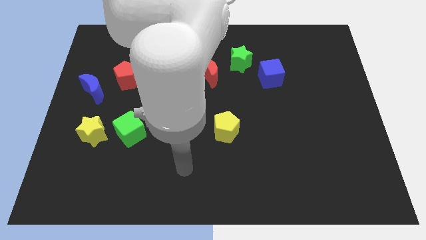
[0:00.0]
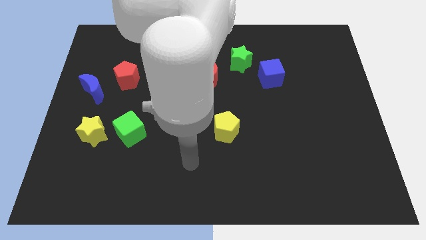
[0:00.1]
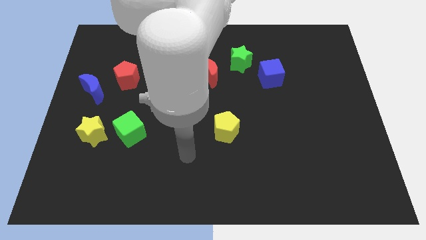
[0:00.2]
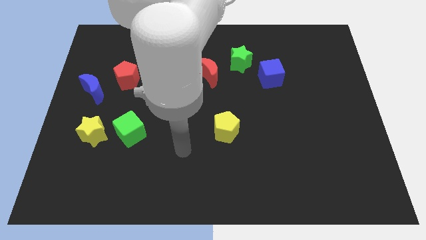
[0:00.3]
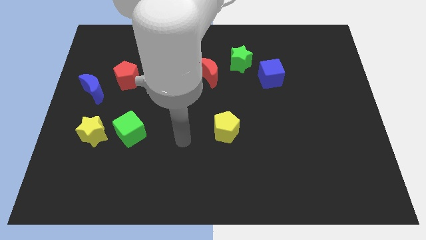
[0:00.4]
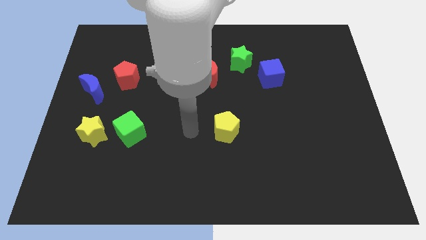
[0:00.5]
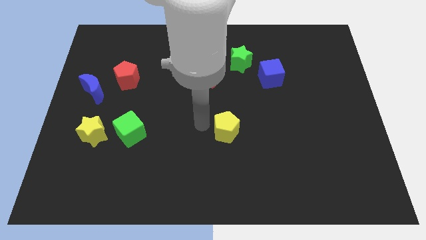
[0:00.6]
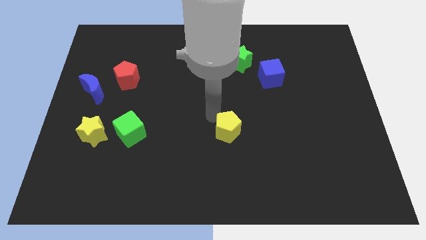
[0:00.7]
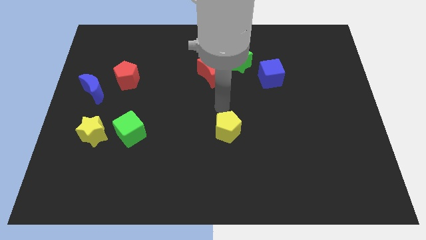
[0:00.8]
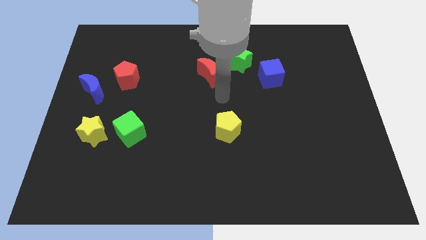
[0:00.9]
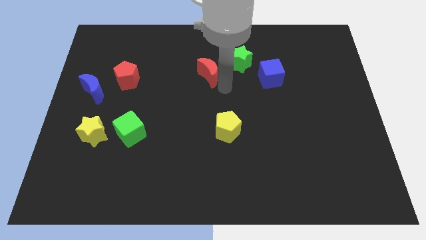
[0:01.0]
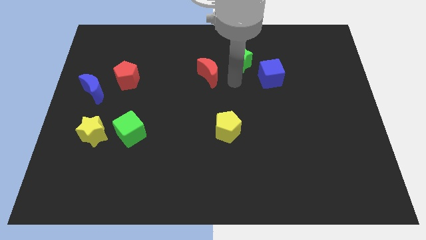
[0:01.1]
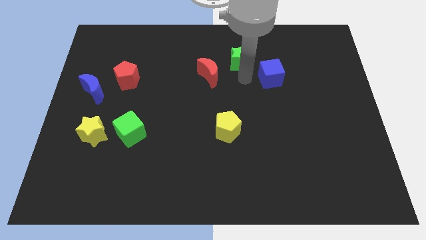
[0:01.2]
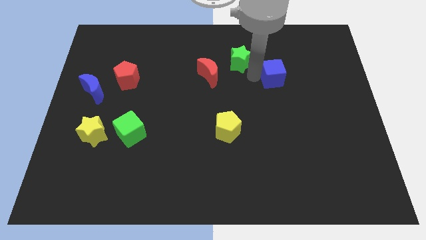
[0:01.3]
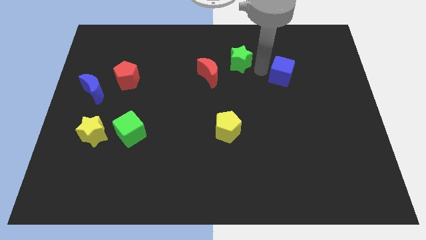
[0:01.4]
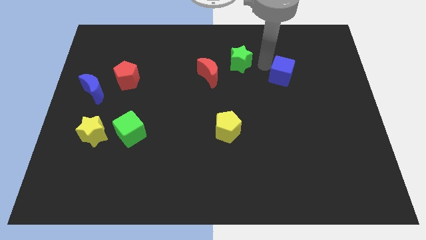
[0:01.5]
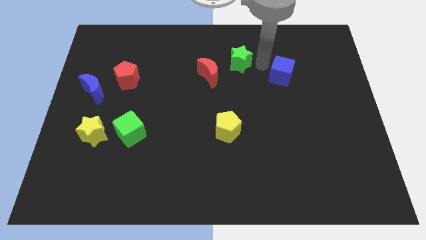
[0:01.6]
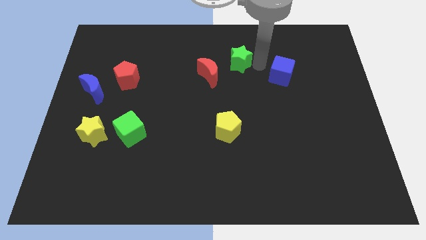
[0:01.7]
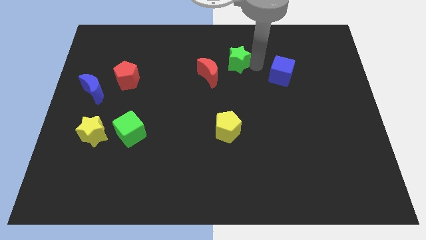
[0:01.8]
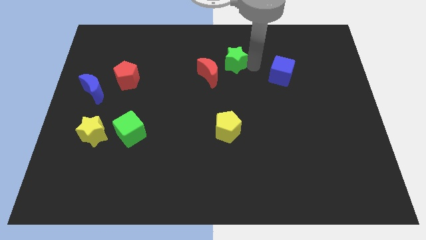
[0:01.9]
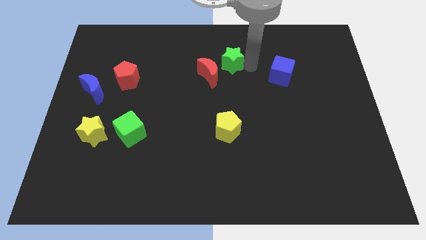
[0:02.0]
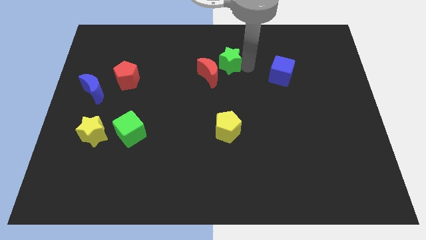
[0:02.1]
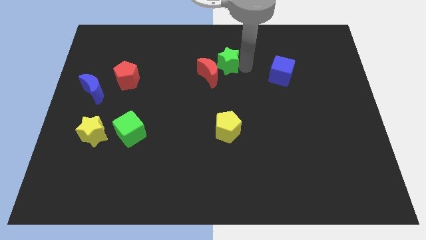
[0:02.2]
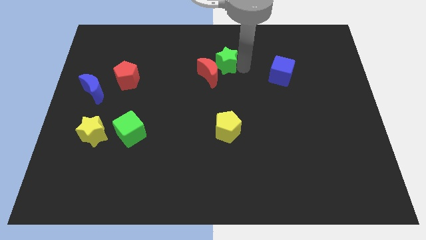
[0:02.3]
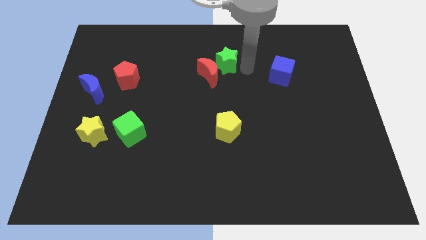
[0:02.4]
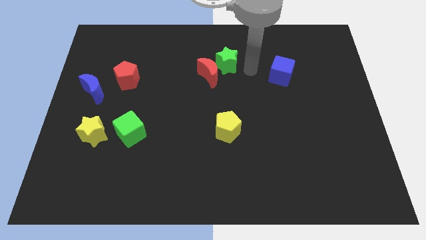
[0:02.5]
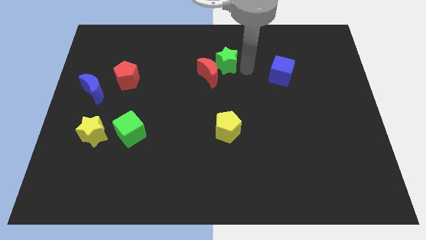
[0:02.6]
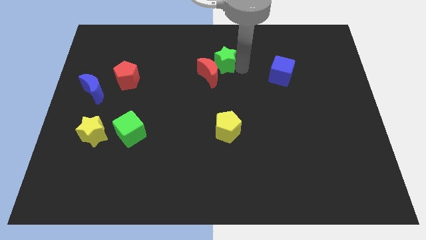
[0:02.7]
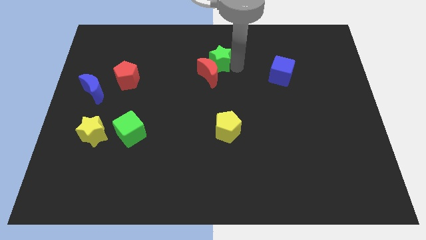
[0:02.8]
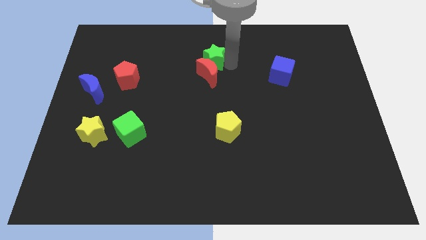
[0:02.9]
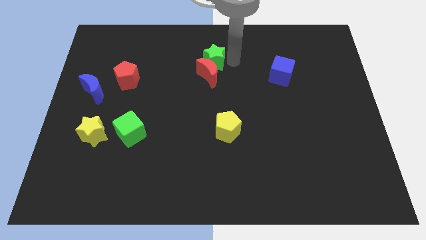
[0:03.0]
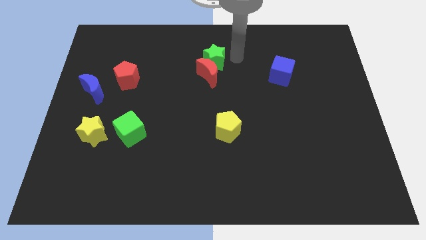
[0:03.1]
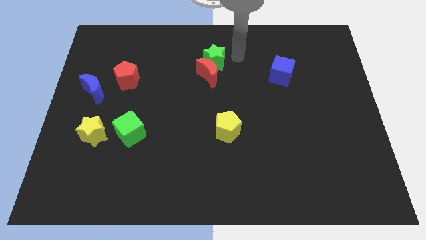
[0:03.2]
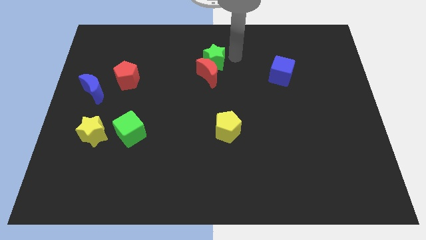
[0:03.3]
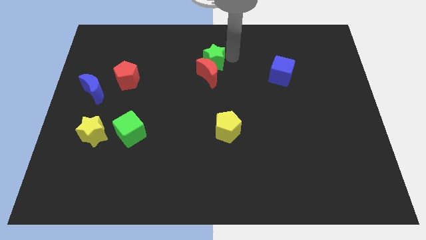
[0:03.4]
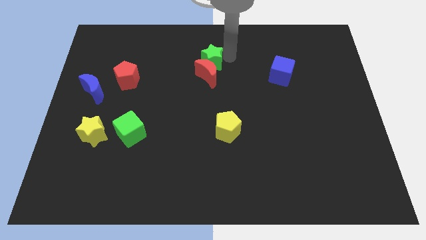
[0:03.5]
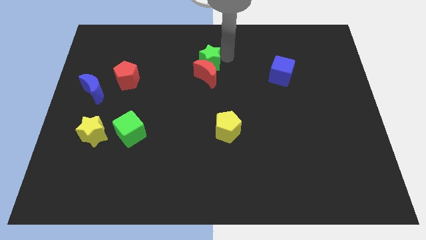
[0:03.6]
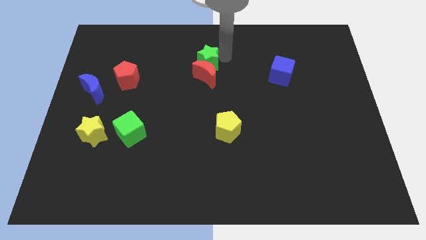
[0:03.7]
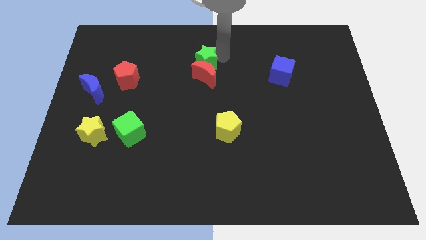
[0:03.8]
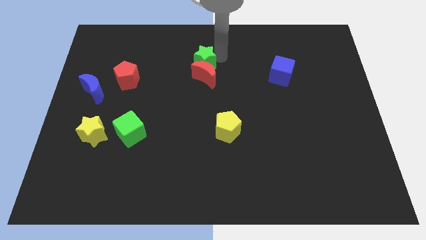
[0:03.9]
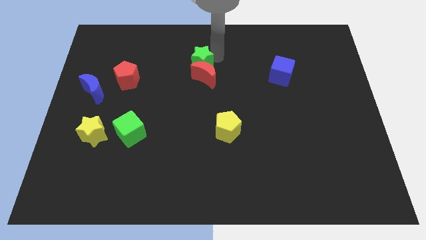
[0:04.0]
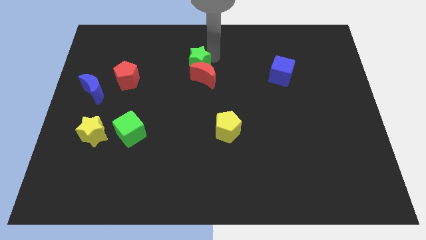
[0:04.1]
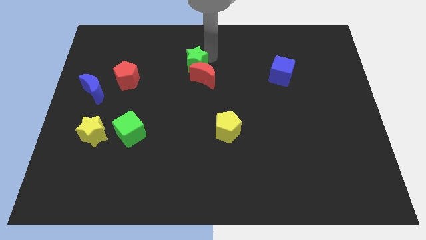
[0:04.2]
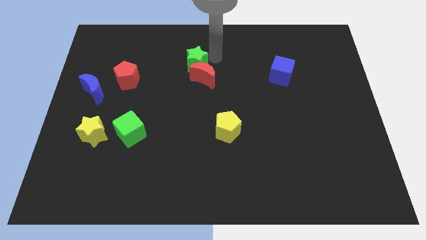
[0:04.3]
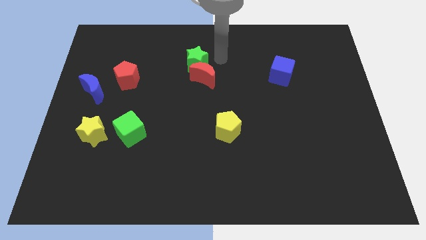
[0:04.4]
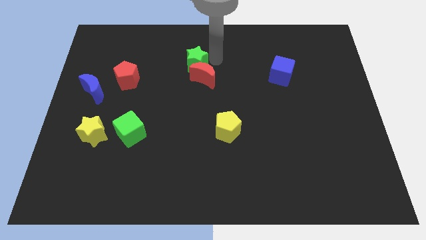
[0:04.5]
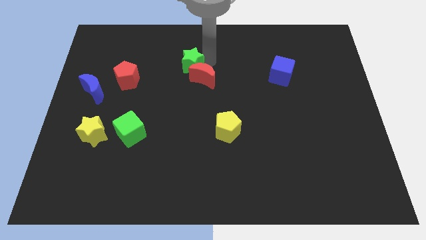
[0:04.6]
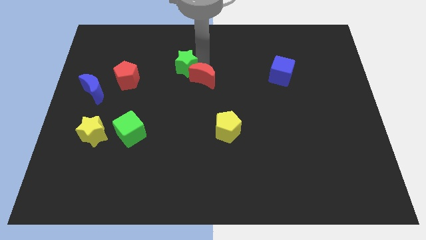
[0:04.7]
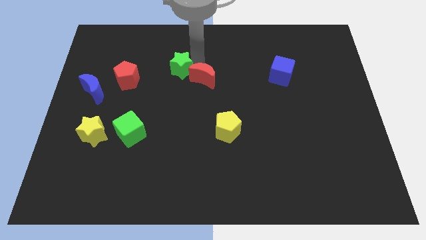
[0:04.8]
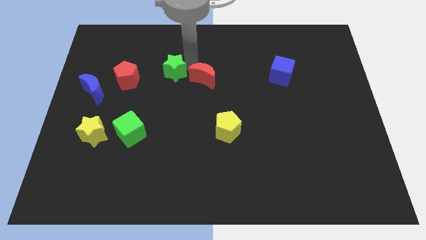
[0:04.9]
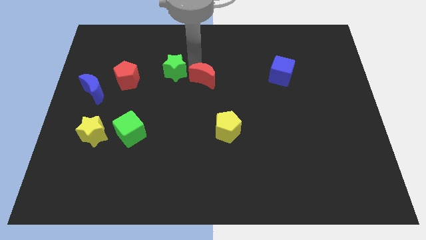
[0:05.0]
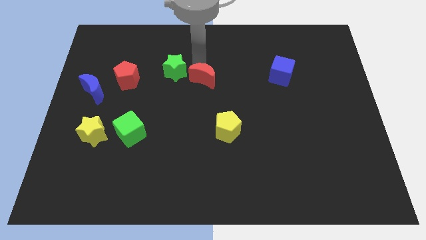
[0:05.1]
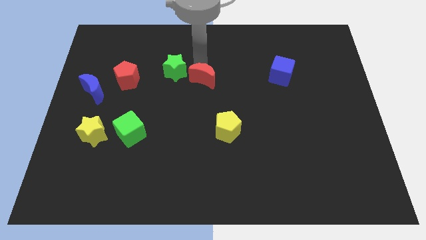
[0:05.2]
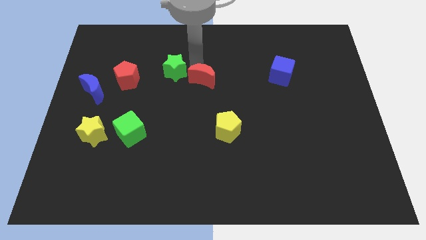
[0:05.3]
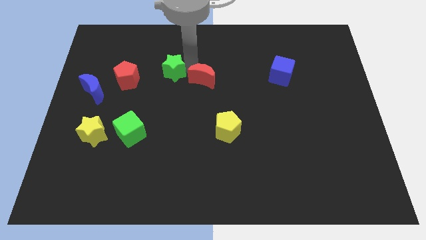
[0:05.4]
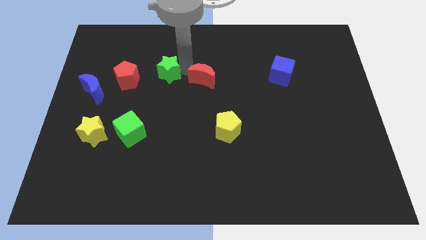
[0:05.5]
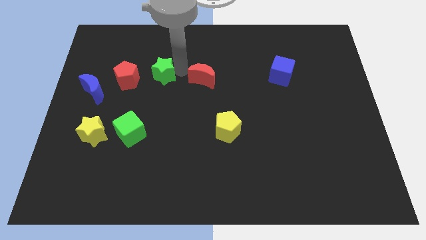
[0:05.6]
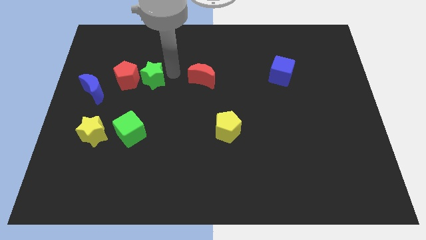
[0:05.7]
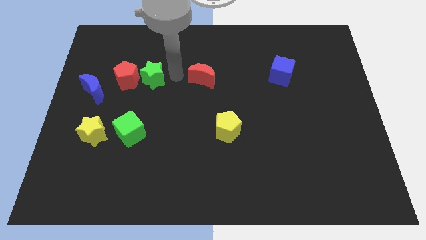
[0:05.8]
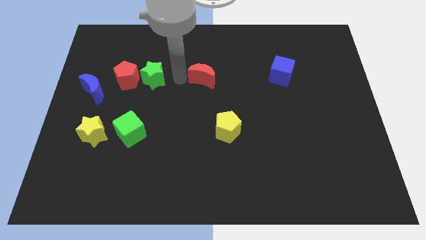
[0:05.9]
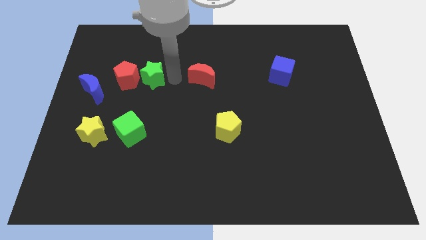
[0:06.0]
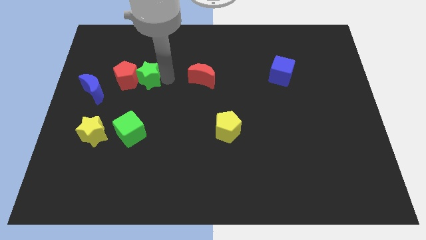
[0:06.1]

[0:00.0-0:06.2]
move the green star close to the red pentagon

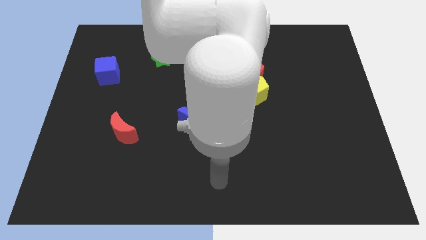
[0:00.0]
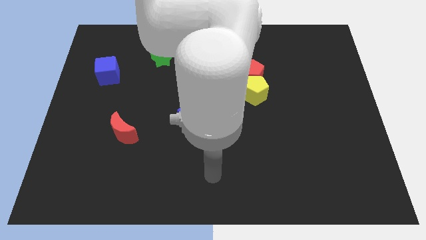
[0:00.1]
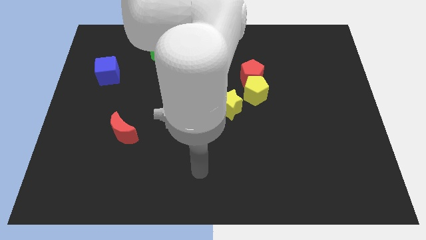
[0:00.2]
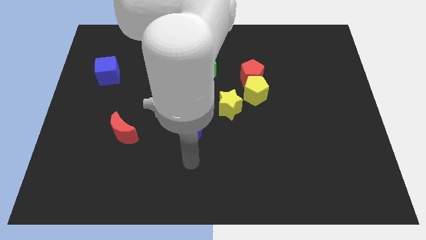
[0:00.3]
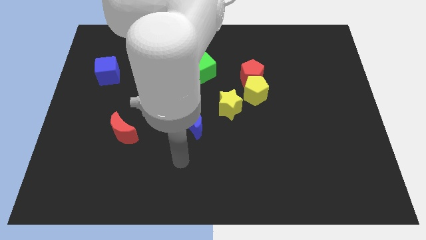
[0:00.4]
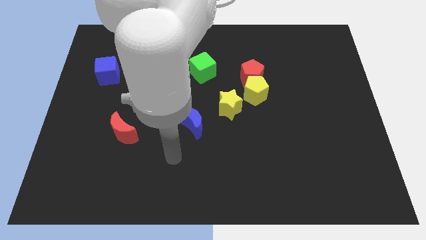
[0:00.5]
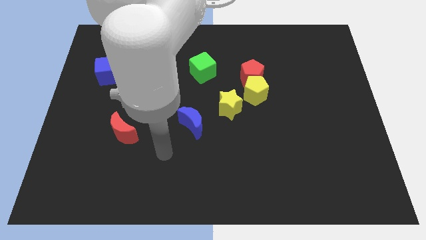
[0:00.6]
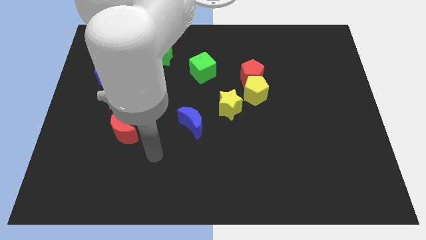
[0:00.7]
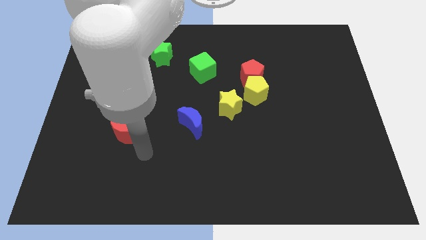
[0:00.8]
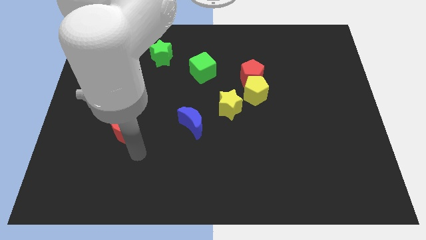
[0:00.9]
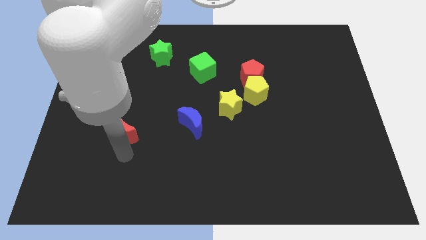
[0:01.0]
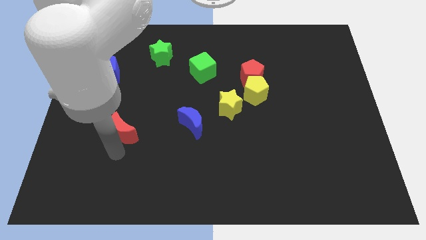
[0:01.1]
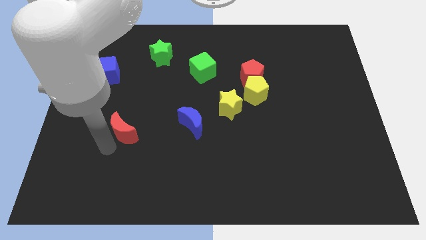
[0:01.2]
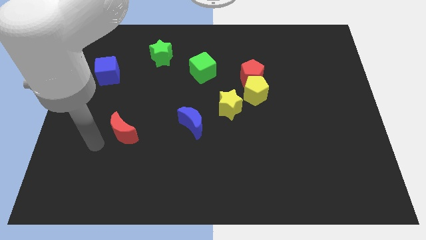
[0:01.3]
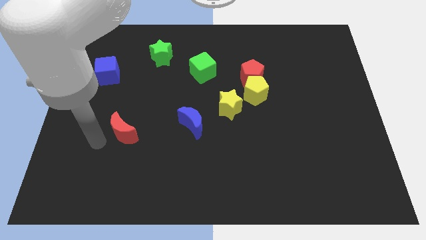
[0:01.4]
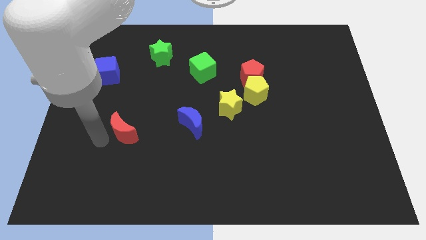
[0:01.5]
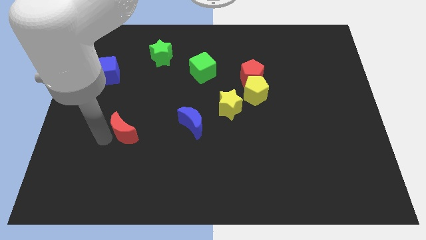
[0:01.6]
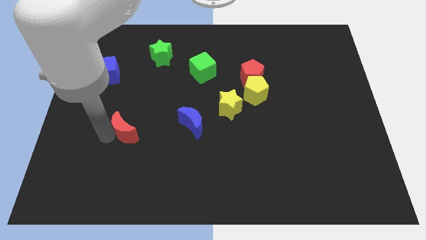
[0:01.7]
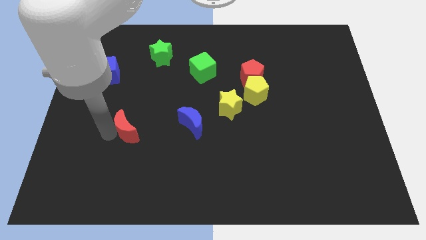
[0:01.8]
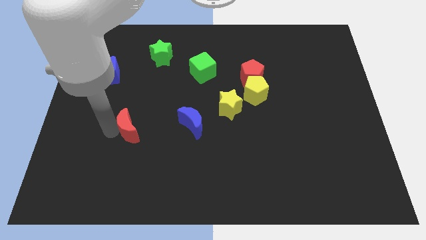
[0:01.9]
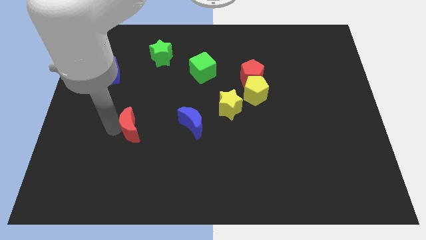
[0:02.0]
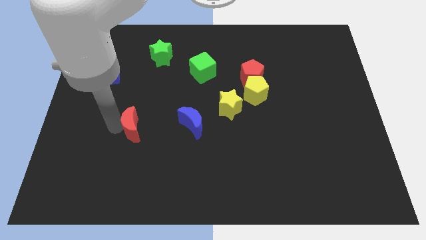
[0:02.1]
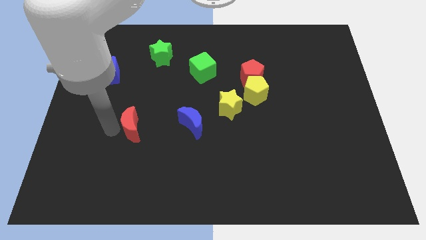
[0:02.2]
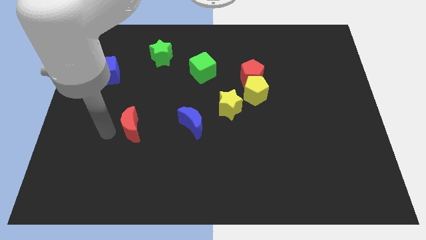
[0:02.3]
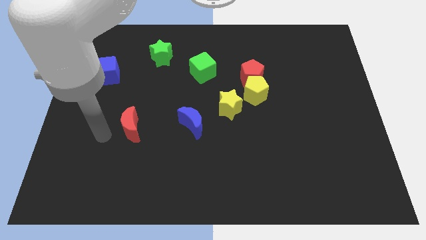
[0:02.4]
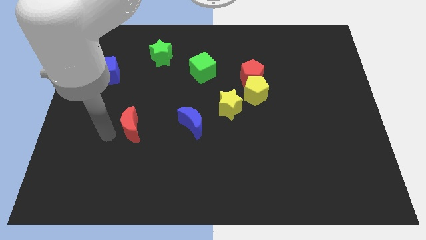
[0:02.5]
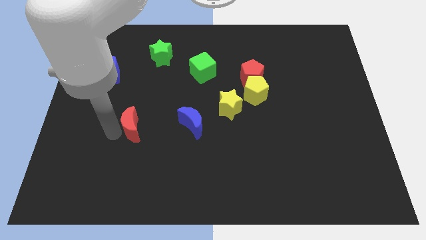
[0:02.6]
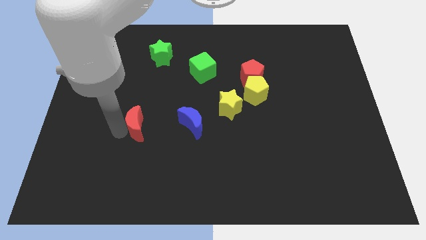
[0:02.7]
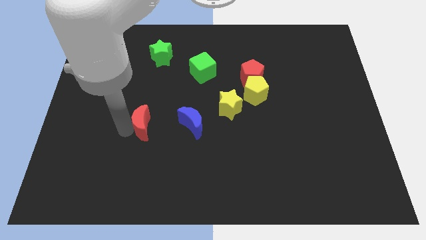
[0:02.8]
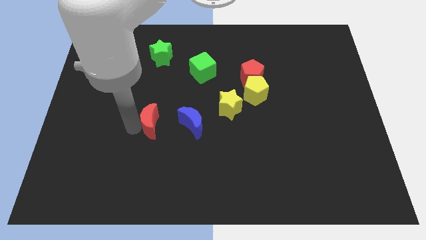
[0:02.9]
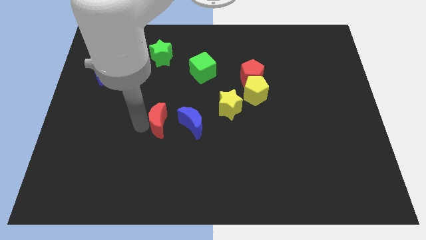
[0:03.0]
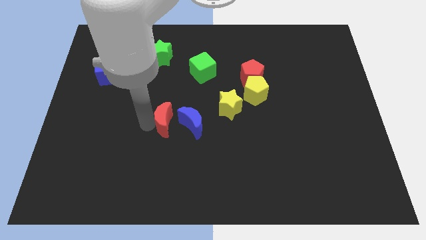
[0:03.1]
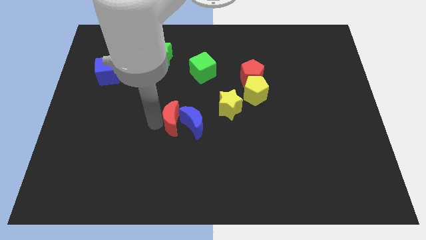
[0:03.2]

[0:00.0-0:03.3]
put the red moon towards the blue moon
